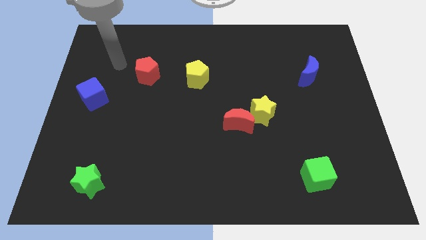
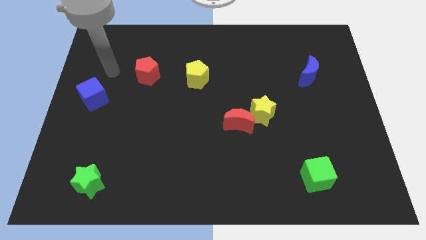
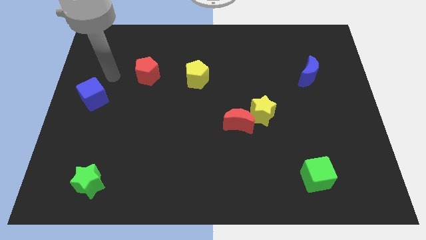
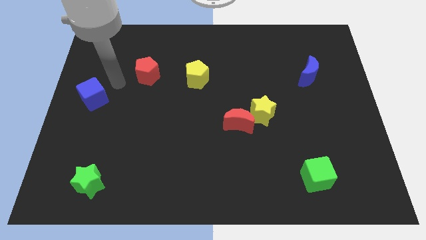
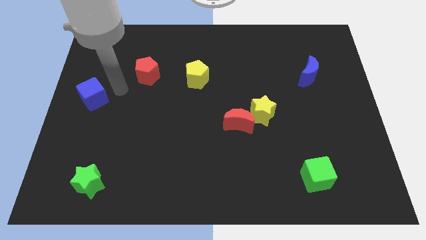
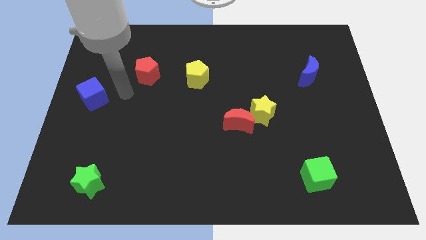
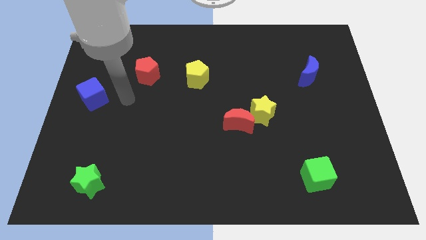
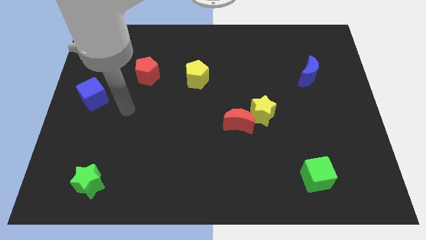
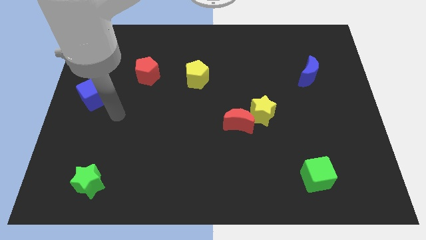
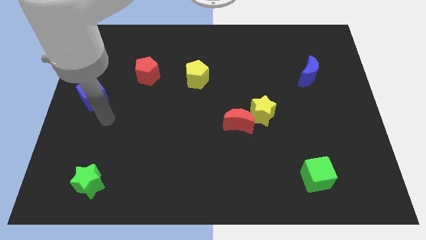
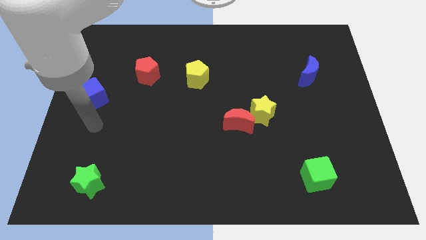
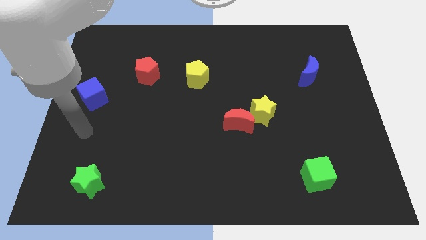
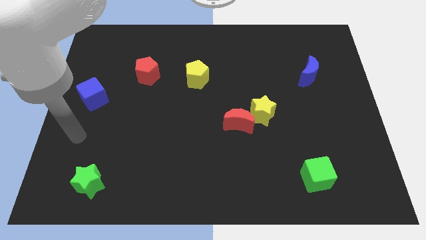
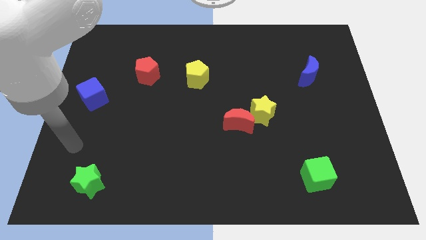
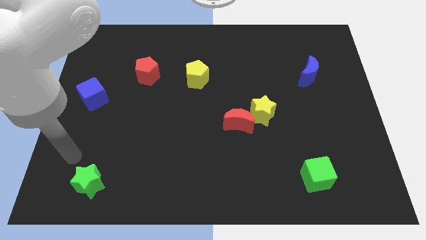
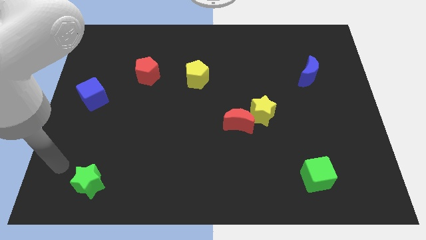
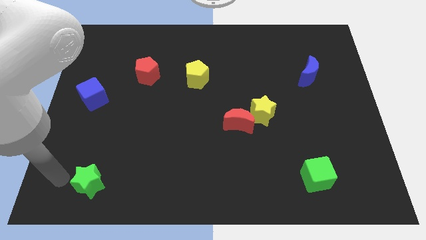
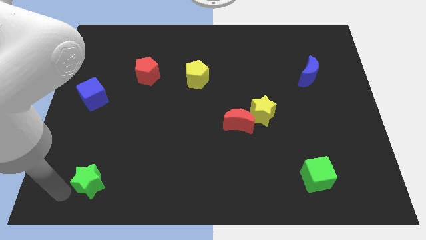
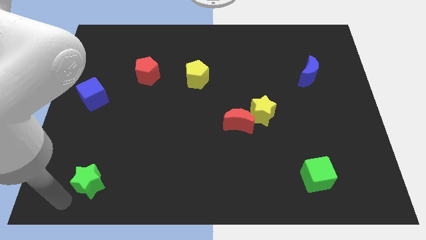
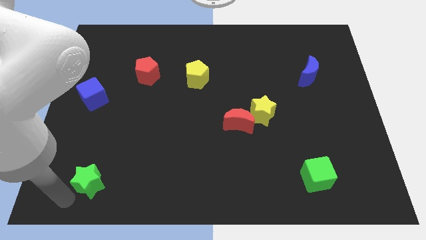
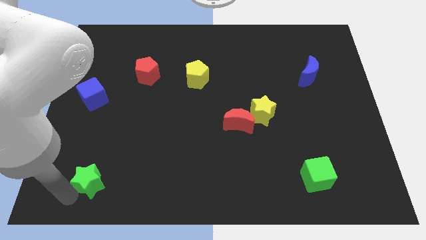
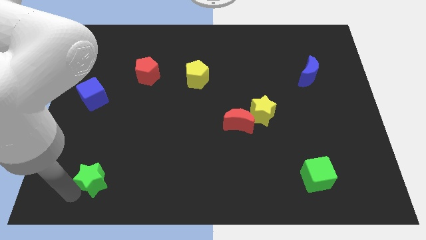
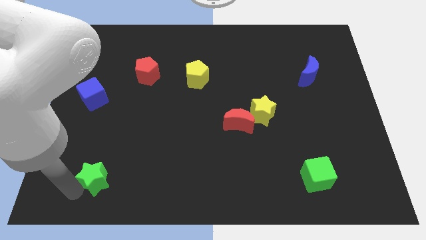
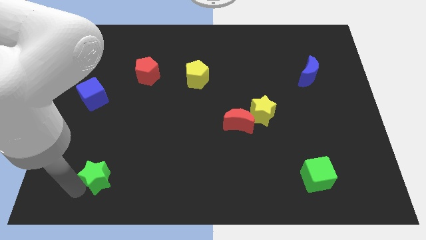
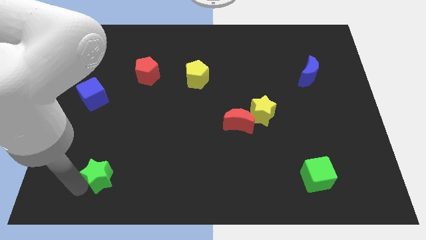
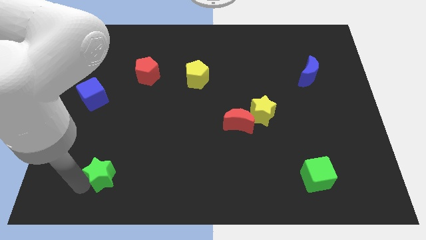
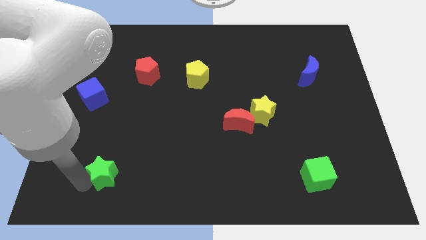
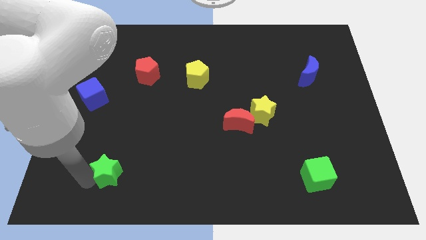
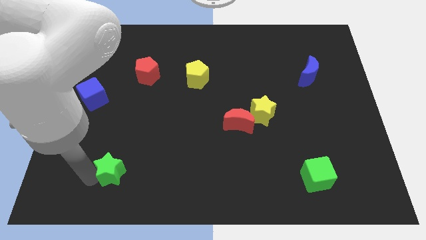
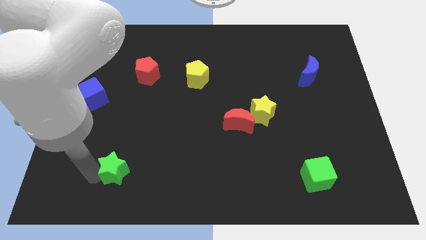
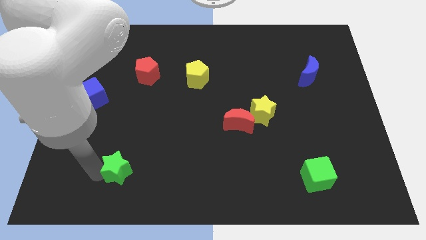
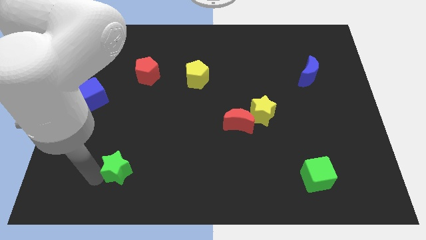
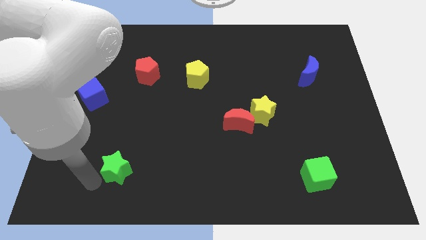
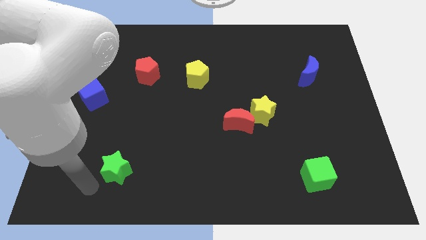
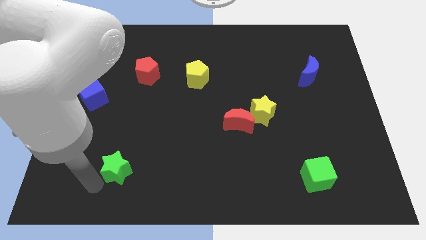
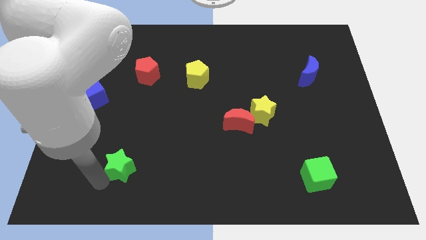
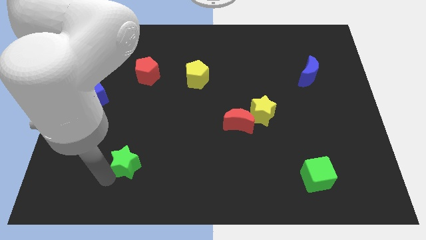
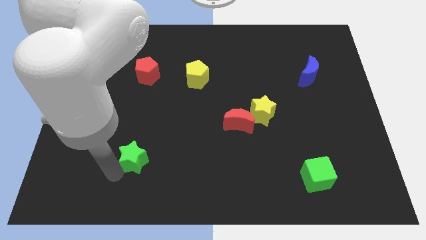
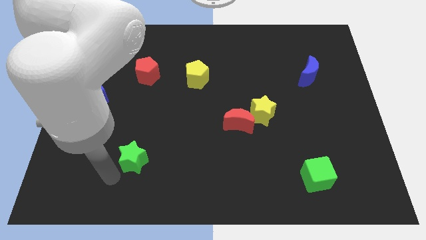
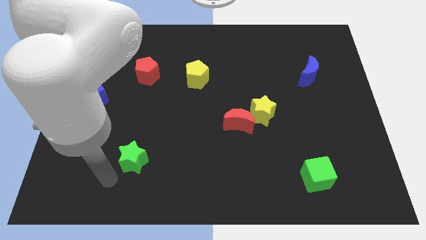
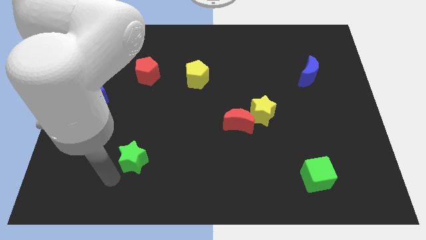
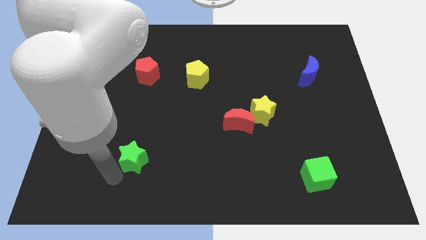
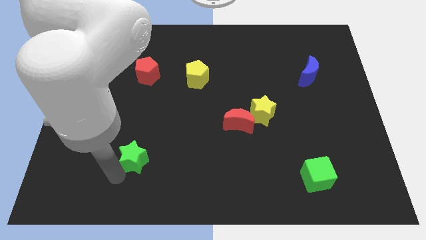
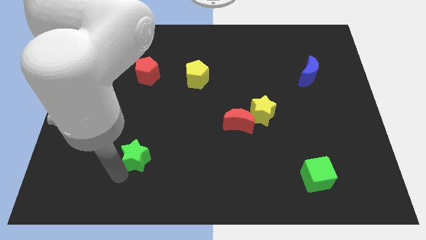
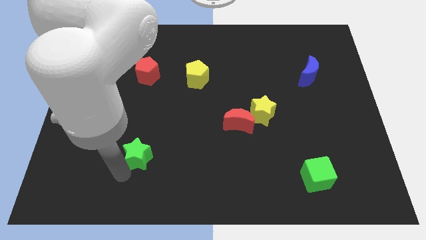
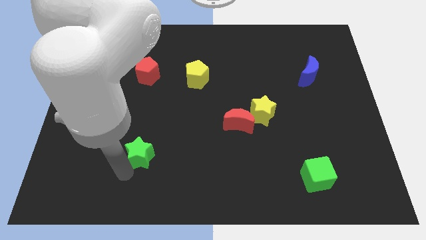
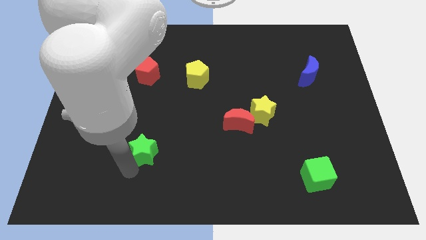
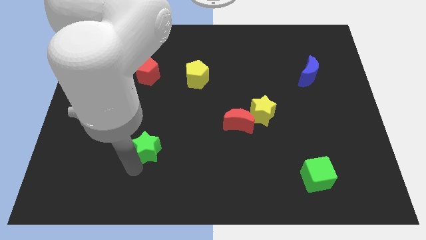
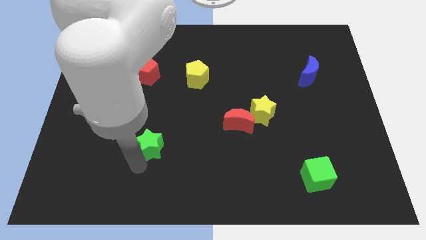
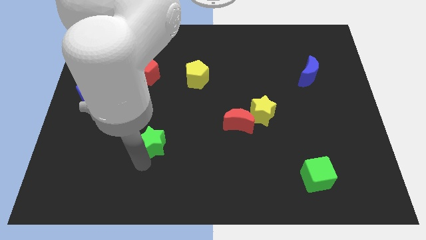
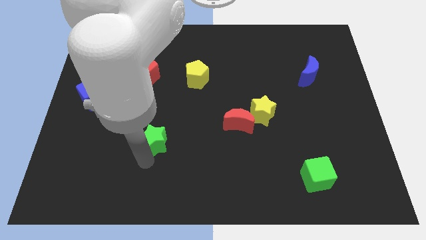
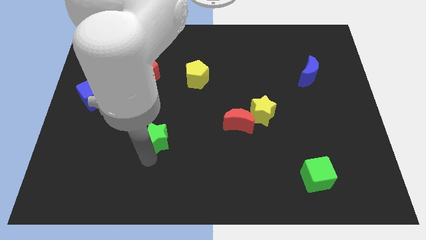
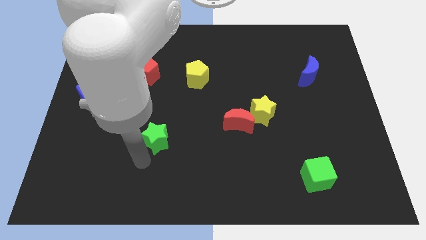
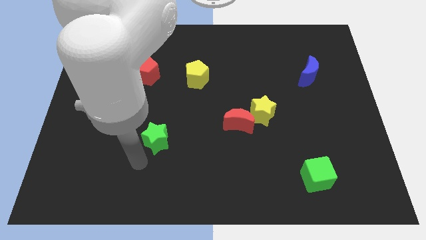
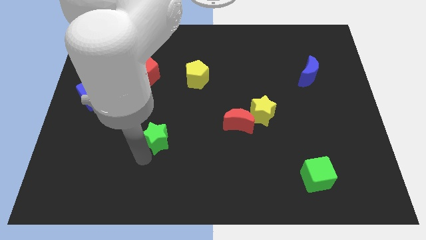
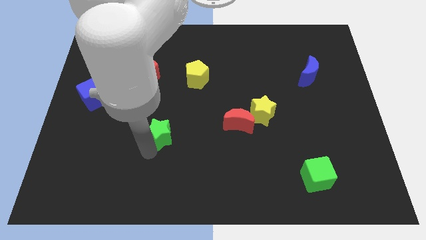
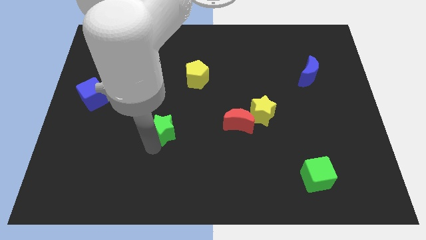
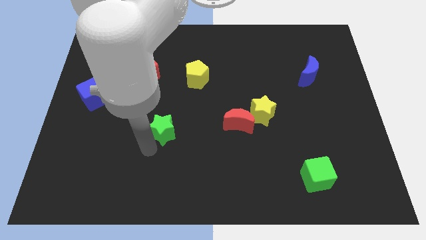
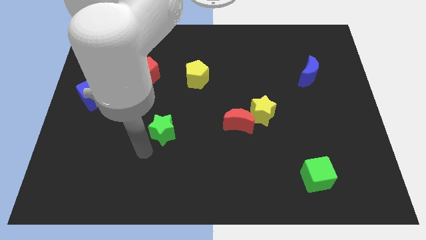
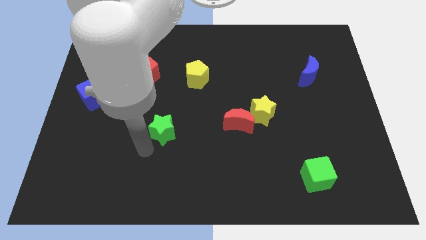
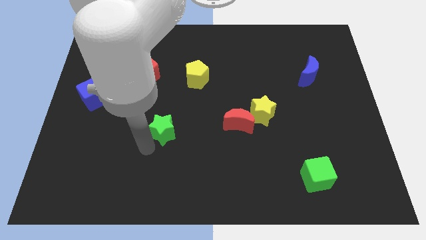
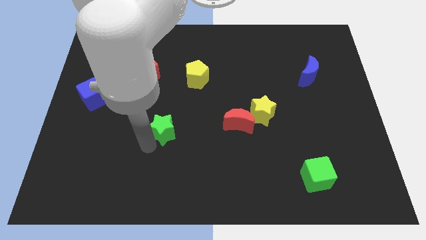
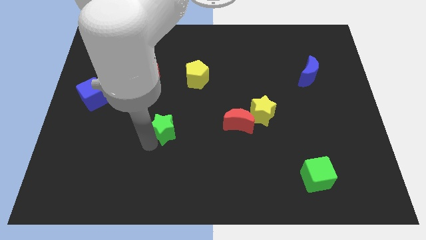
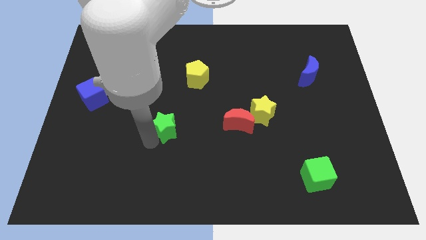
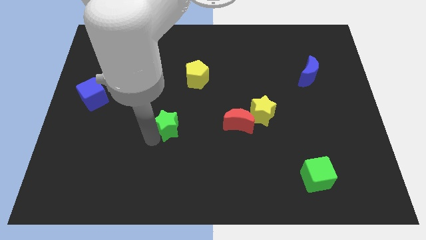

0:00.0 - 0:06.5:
move the green star diagonally upwards and right

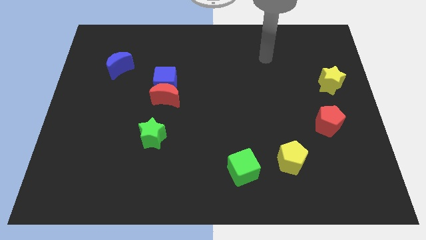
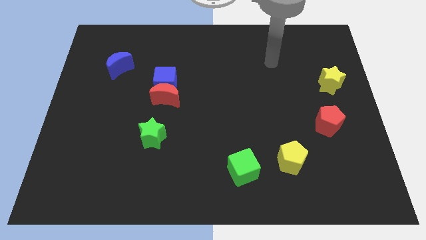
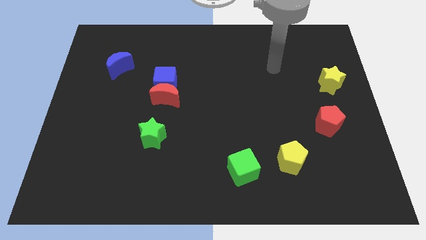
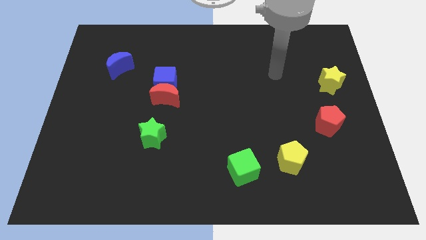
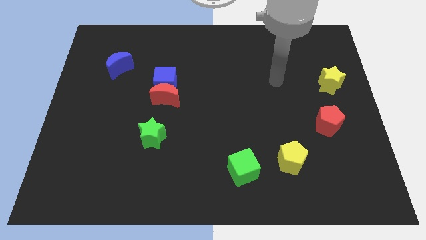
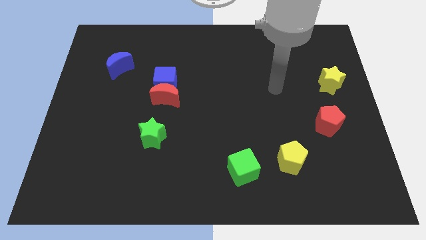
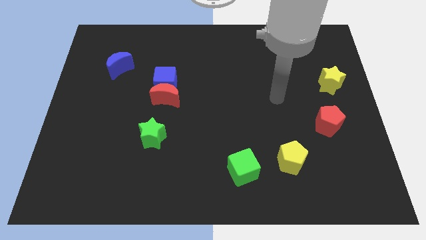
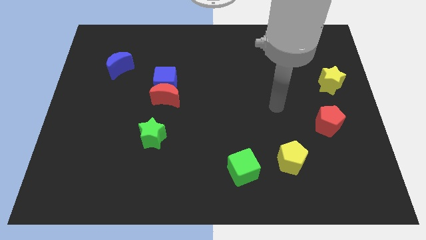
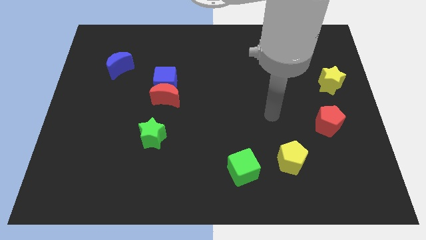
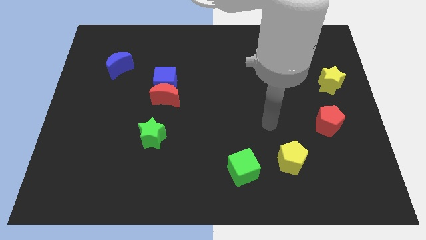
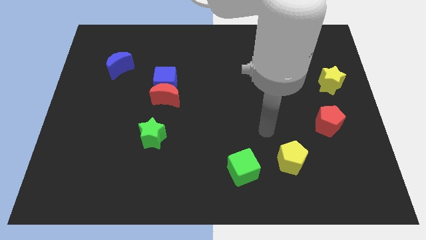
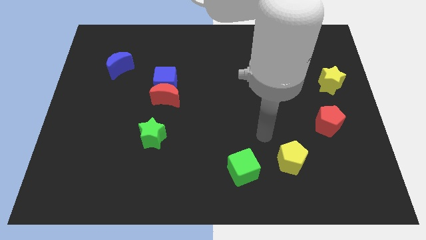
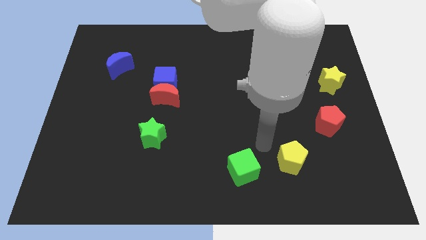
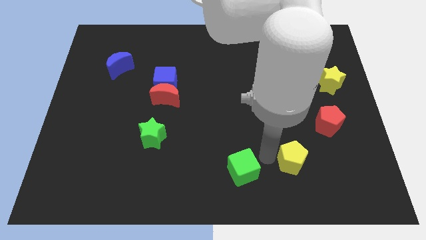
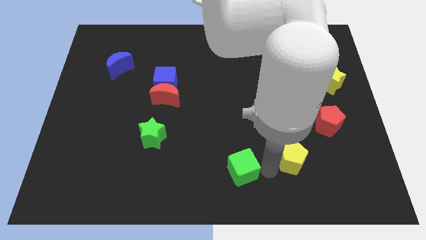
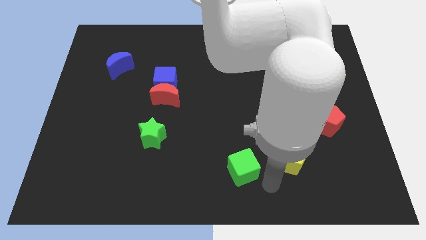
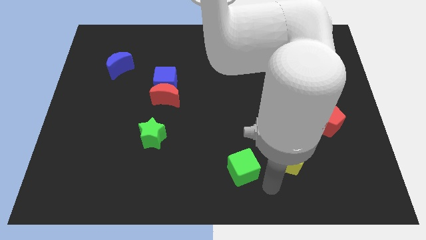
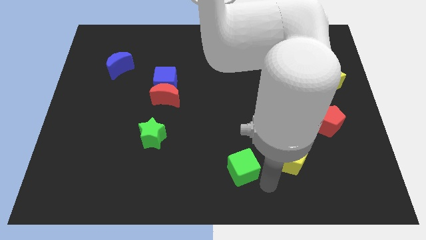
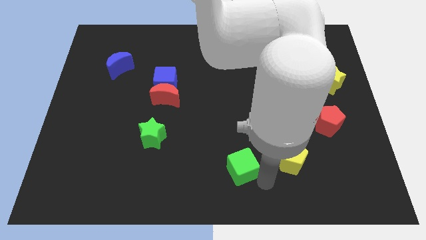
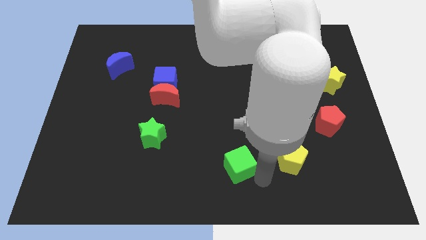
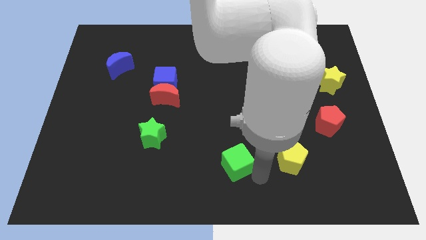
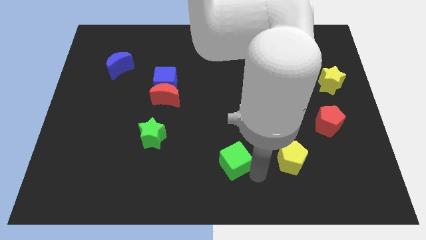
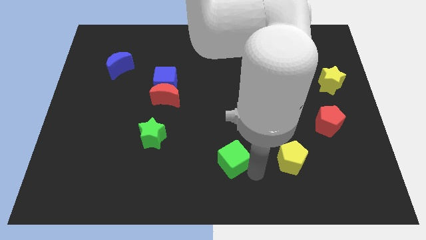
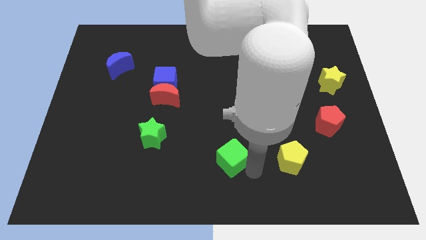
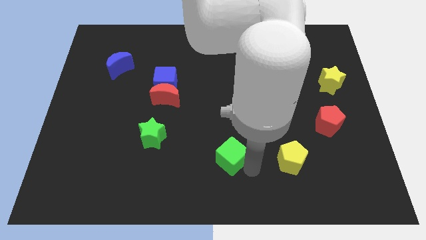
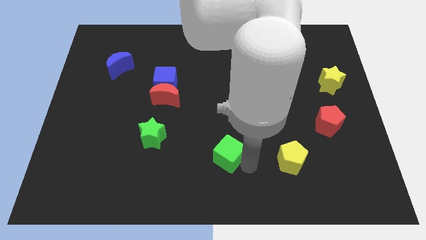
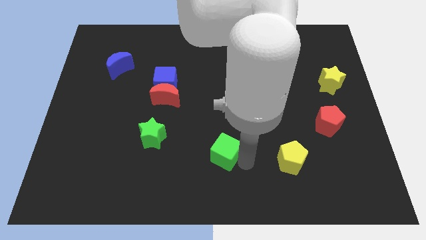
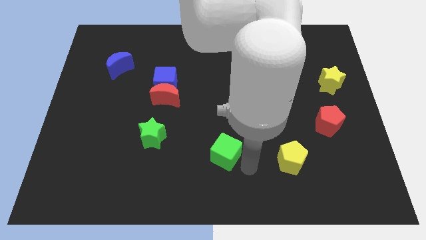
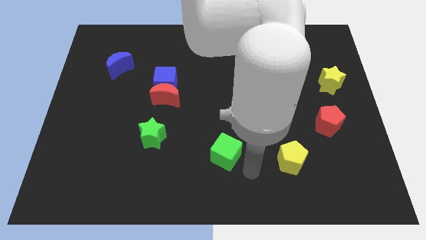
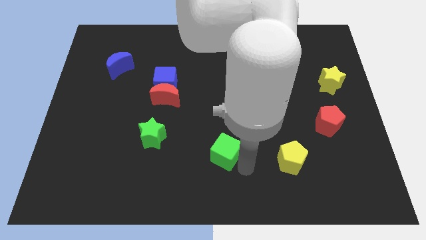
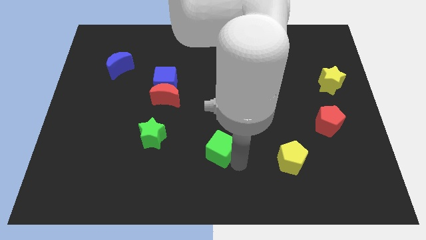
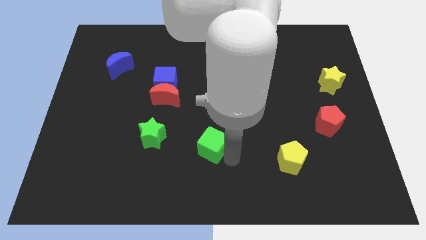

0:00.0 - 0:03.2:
slightly push the green cube diagonally upwards and to the left
